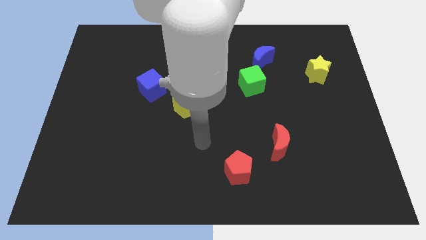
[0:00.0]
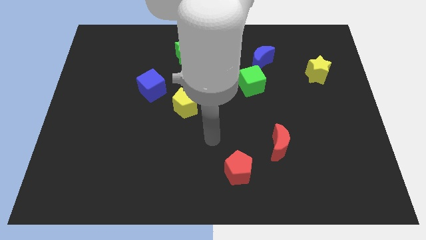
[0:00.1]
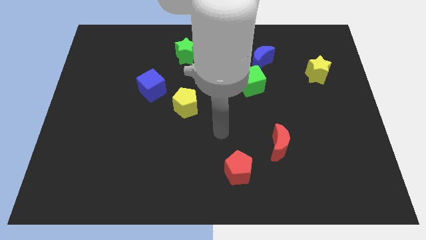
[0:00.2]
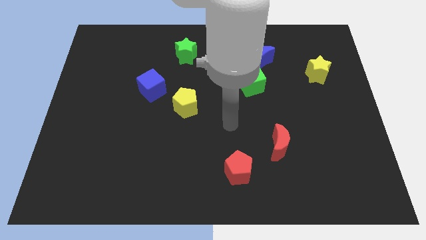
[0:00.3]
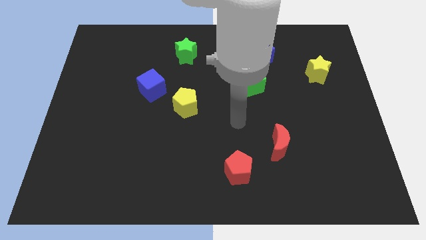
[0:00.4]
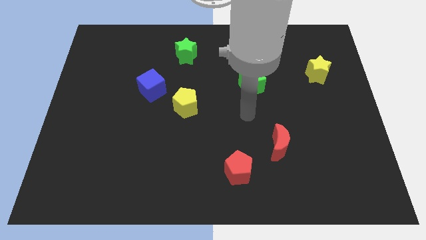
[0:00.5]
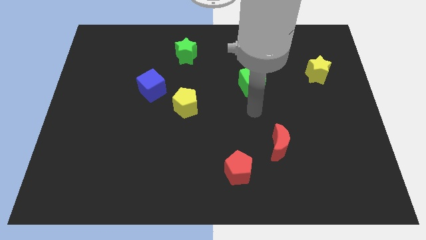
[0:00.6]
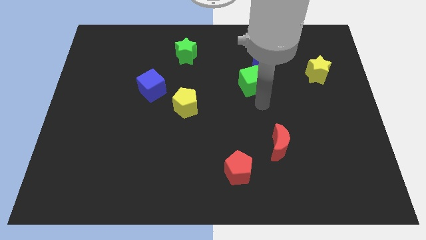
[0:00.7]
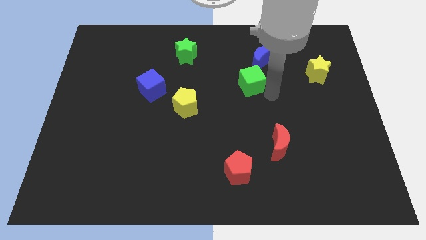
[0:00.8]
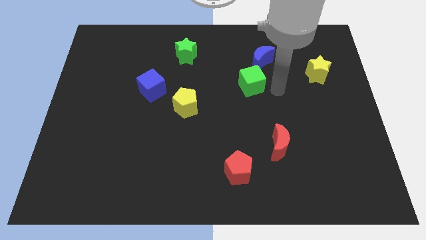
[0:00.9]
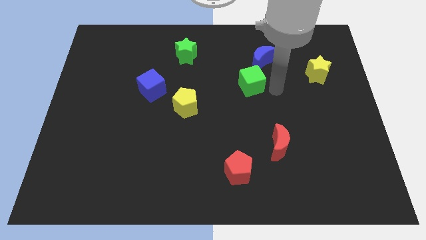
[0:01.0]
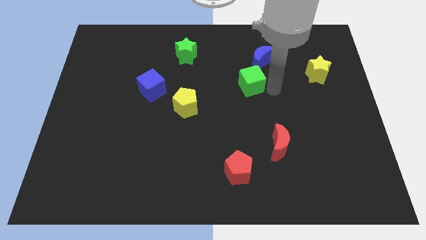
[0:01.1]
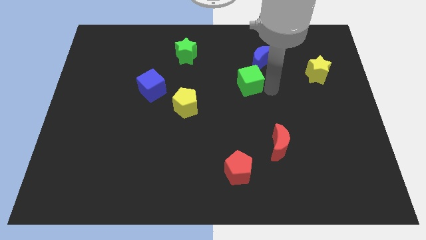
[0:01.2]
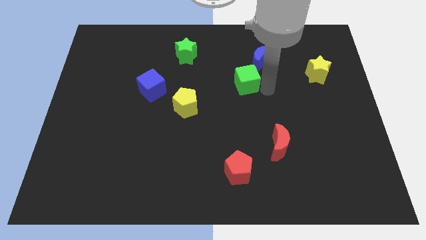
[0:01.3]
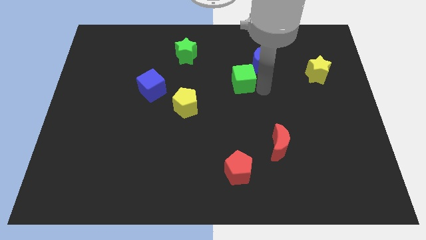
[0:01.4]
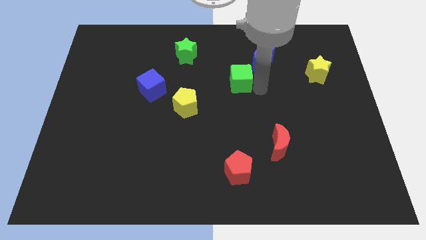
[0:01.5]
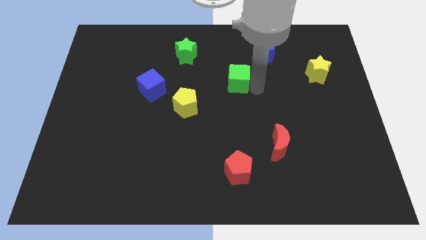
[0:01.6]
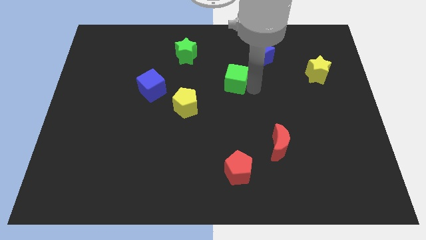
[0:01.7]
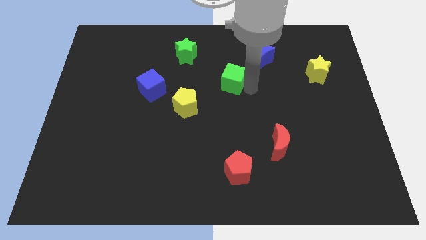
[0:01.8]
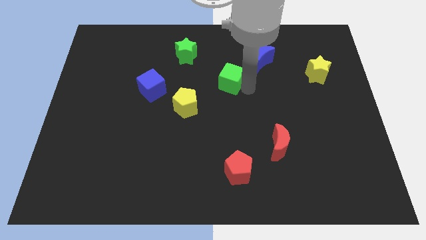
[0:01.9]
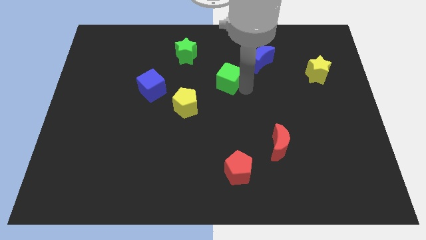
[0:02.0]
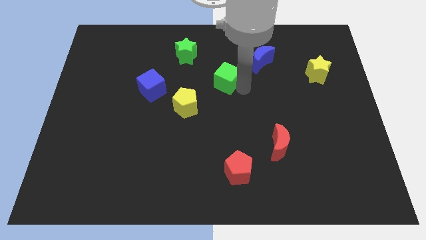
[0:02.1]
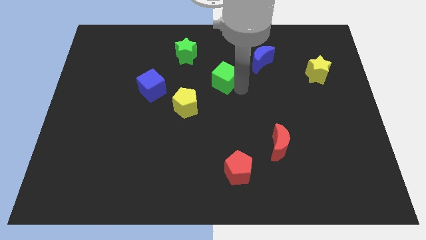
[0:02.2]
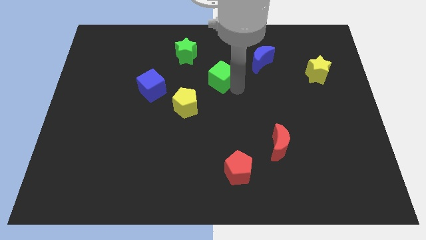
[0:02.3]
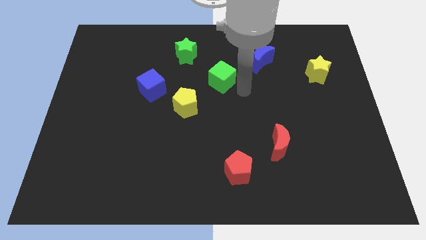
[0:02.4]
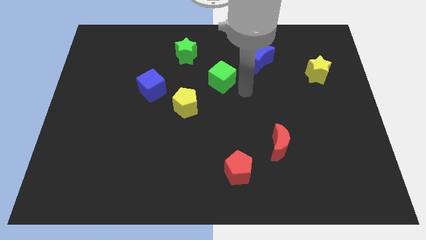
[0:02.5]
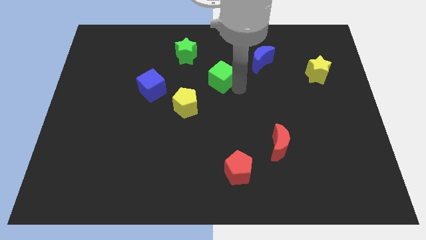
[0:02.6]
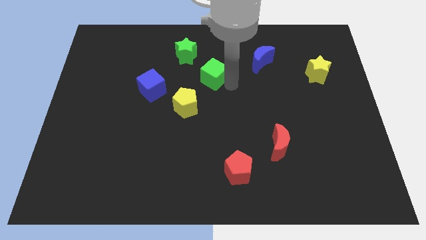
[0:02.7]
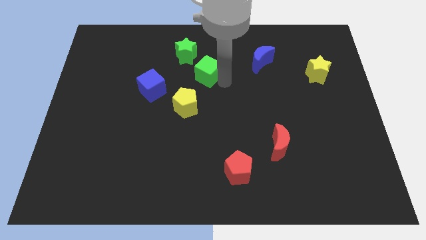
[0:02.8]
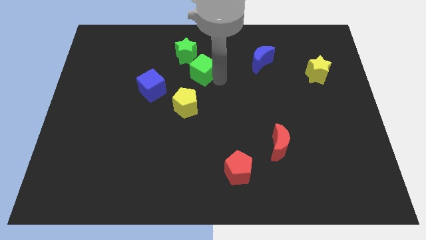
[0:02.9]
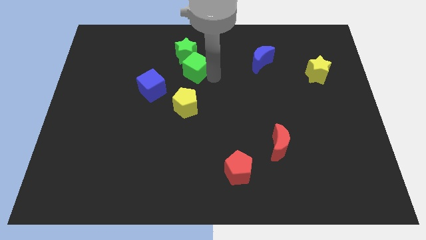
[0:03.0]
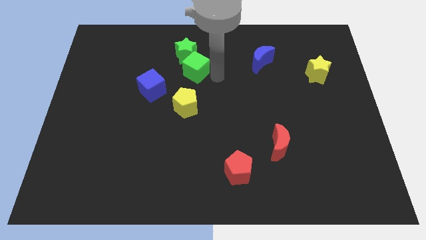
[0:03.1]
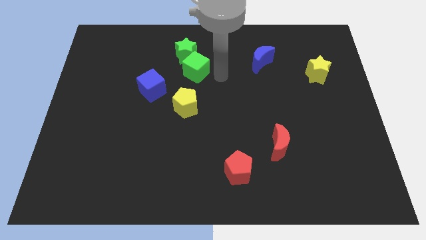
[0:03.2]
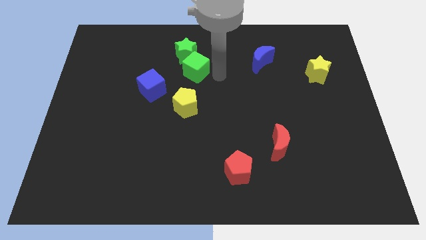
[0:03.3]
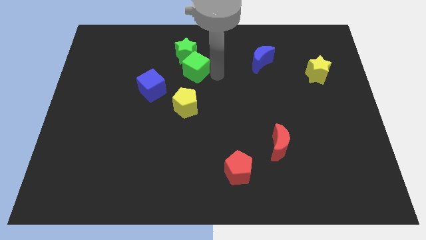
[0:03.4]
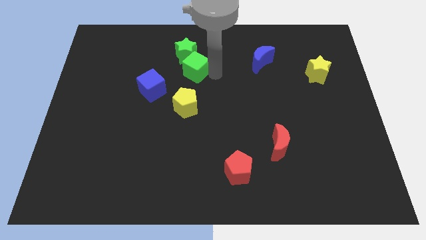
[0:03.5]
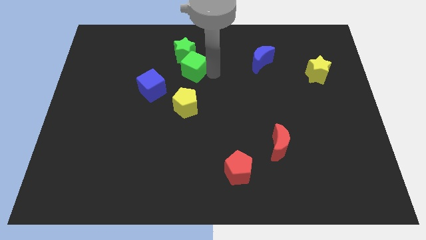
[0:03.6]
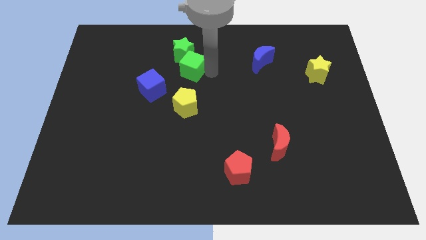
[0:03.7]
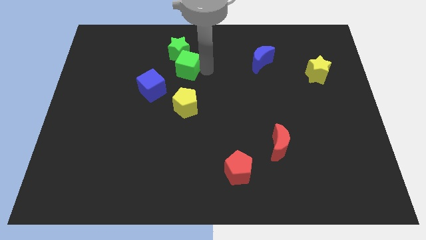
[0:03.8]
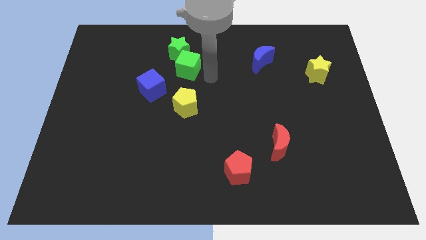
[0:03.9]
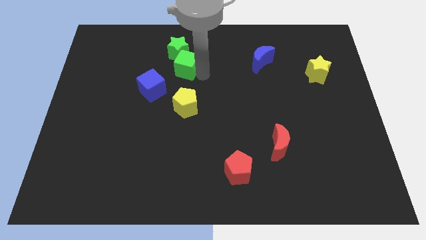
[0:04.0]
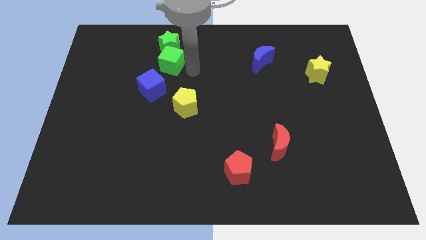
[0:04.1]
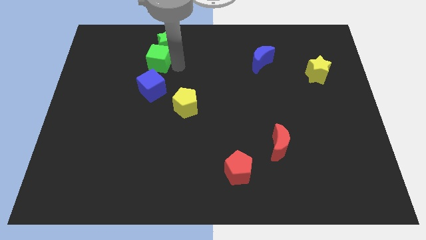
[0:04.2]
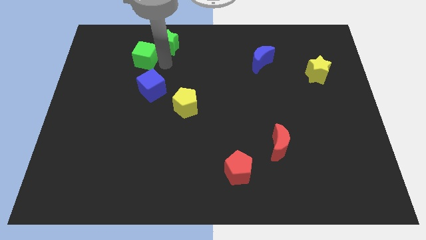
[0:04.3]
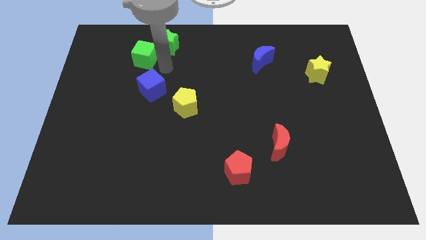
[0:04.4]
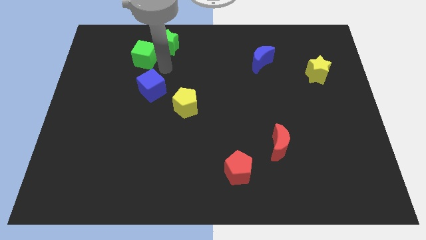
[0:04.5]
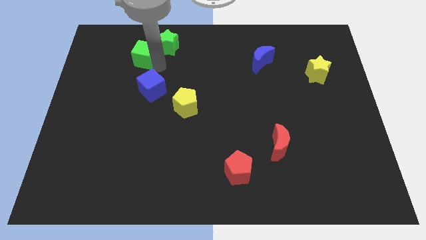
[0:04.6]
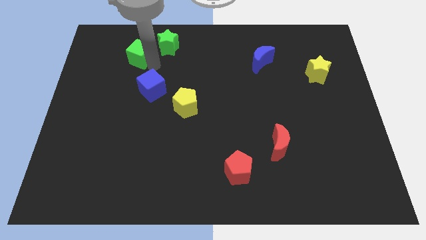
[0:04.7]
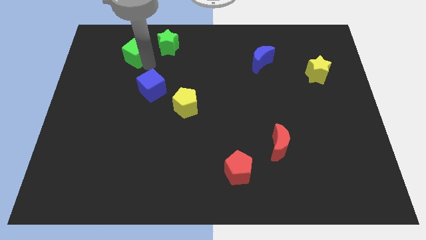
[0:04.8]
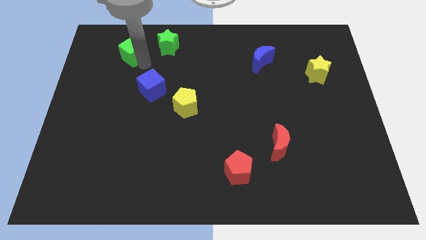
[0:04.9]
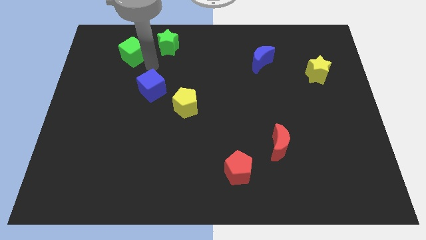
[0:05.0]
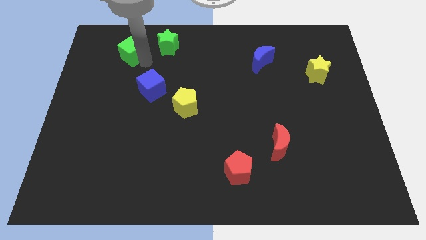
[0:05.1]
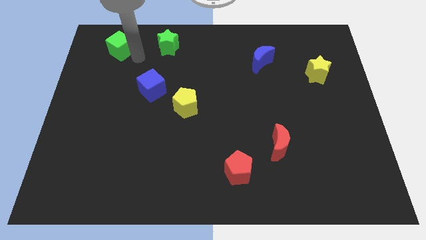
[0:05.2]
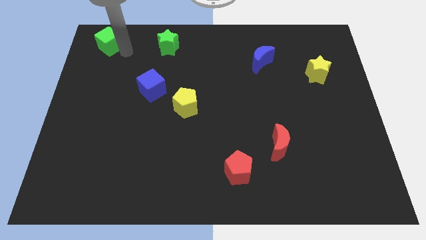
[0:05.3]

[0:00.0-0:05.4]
move the green cube to the top left

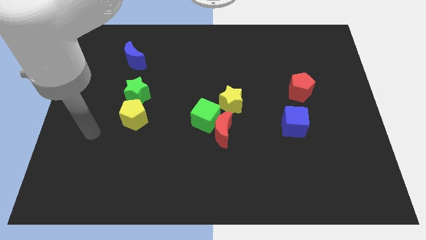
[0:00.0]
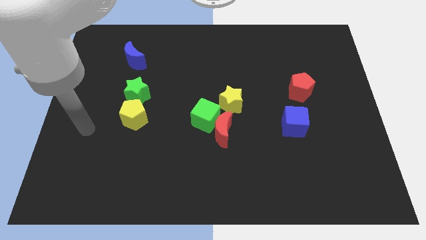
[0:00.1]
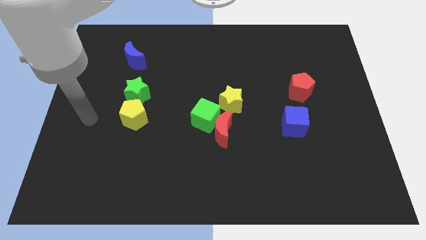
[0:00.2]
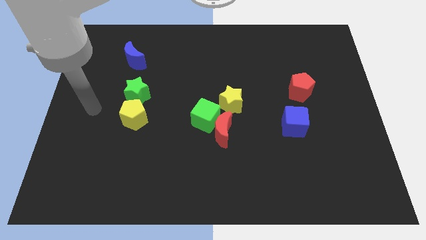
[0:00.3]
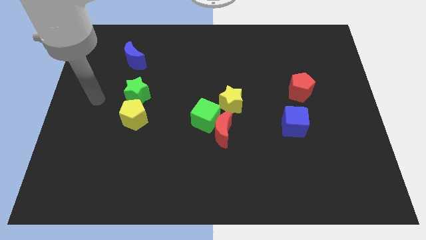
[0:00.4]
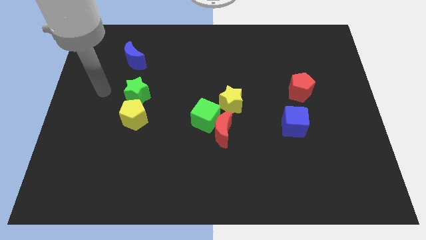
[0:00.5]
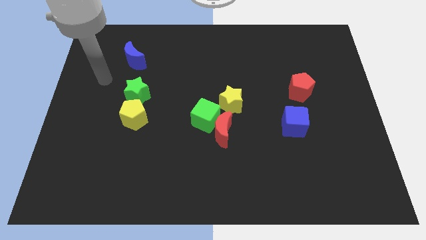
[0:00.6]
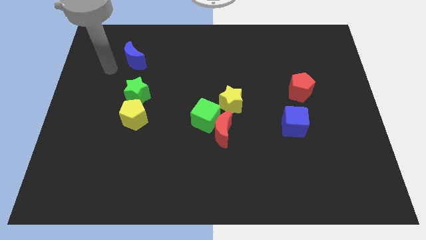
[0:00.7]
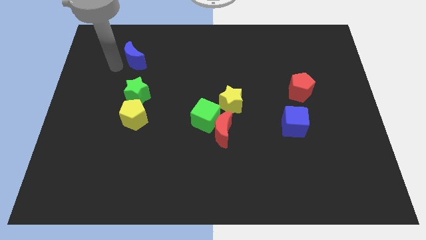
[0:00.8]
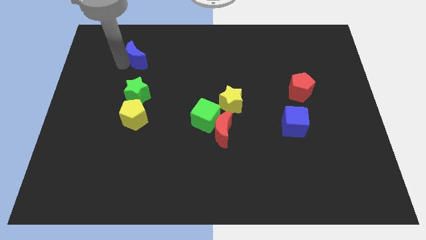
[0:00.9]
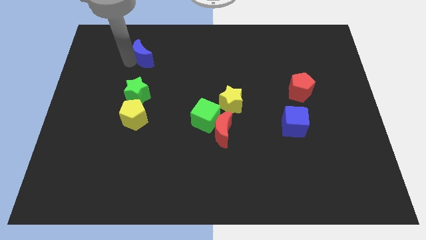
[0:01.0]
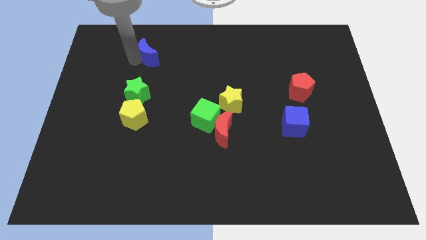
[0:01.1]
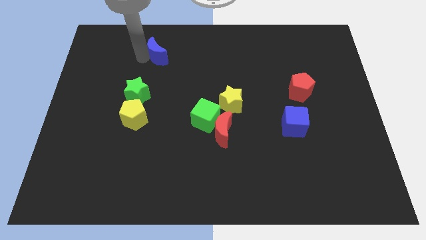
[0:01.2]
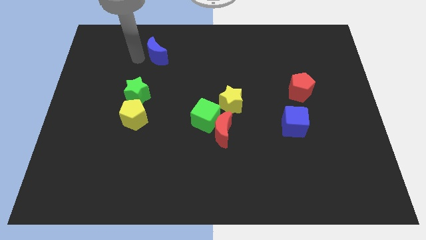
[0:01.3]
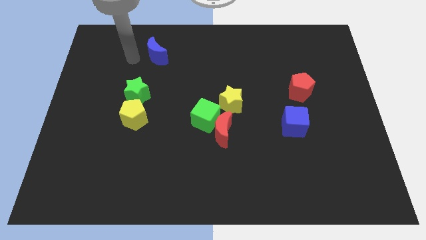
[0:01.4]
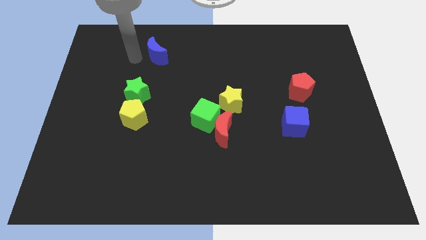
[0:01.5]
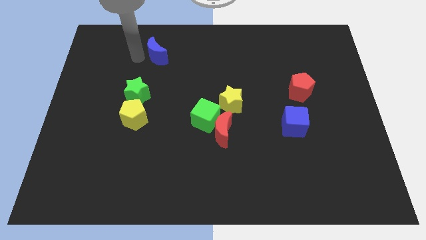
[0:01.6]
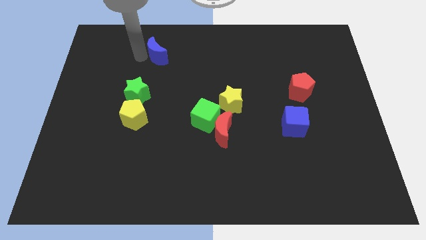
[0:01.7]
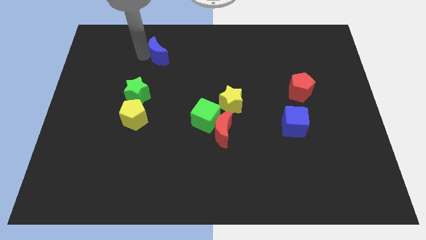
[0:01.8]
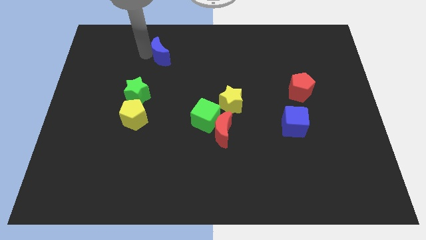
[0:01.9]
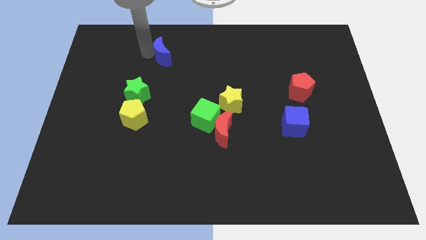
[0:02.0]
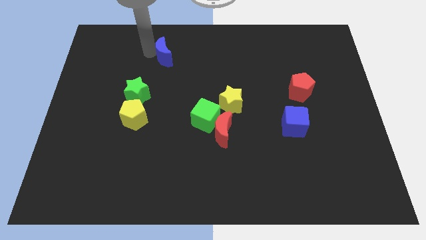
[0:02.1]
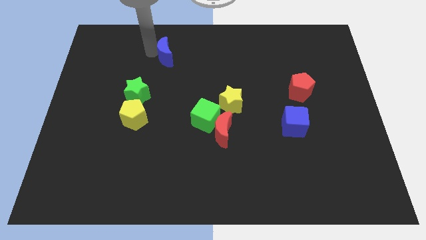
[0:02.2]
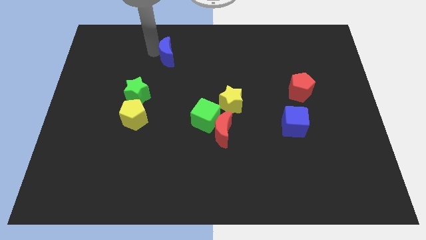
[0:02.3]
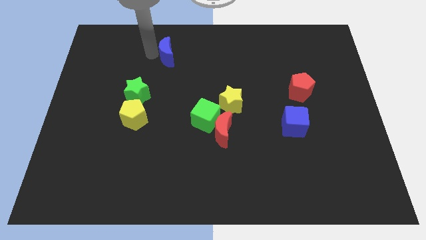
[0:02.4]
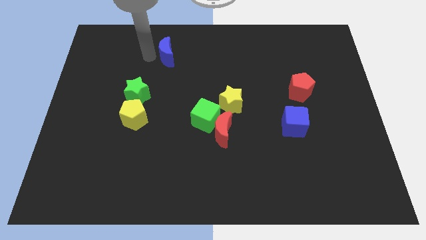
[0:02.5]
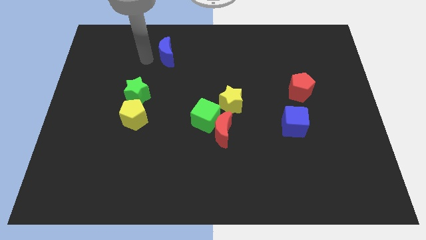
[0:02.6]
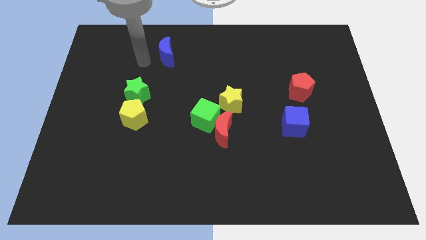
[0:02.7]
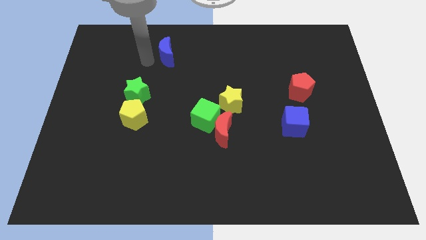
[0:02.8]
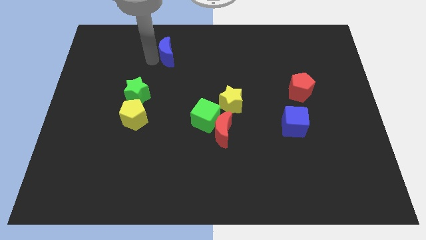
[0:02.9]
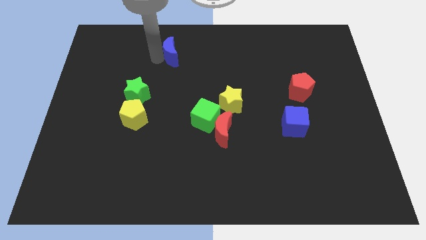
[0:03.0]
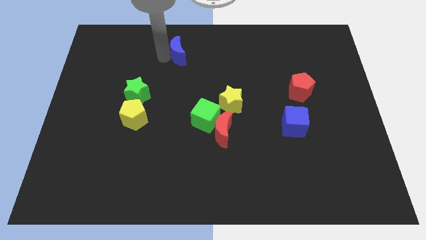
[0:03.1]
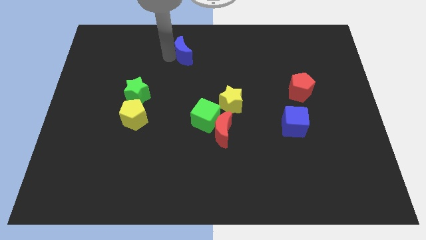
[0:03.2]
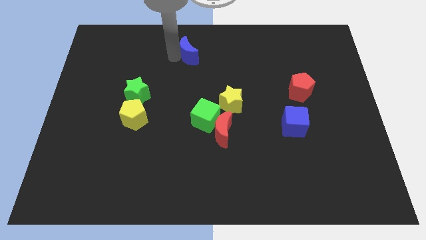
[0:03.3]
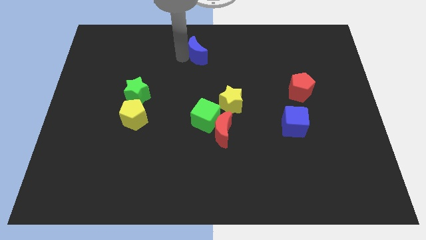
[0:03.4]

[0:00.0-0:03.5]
slide the blue moon to the towards your base
